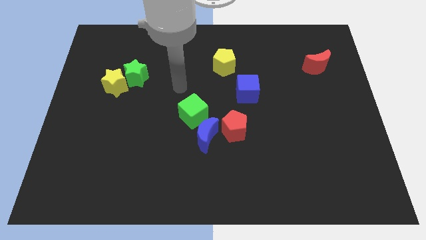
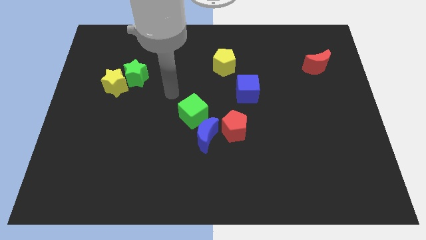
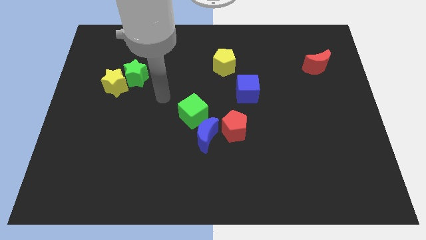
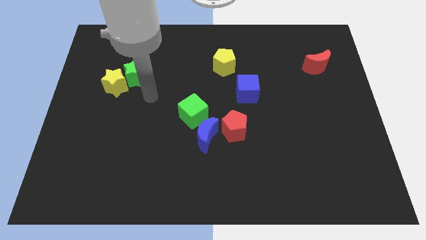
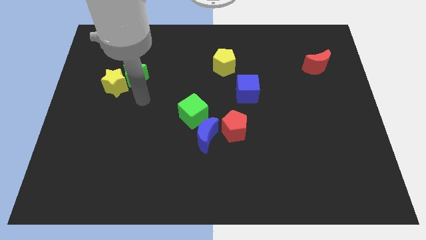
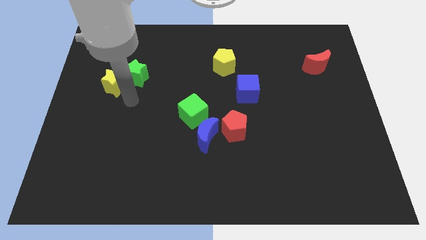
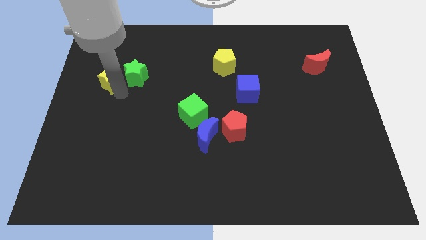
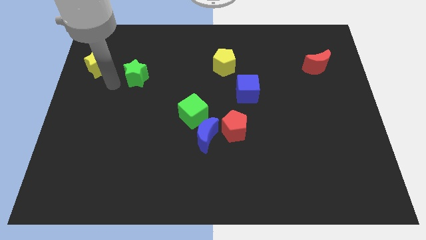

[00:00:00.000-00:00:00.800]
separate the green star from the yellow star

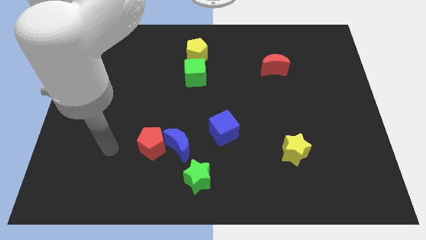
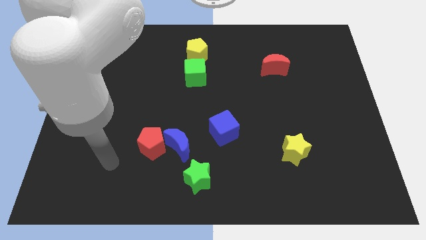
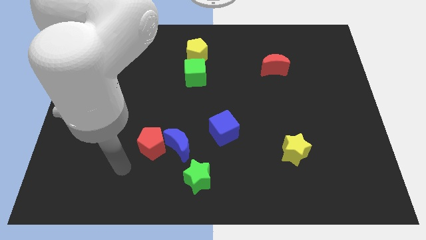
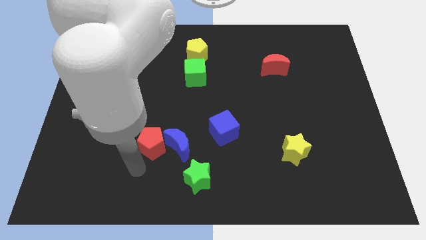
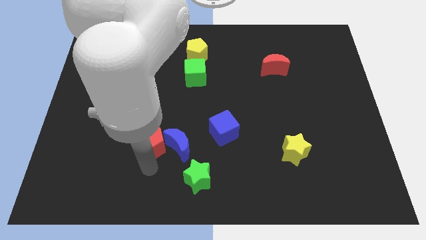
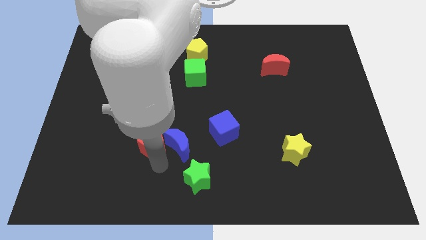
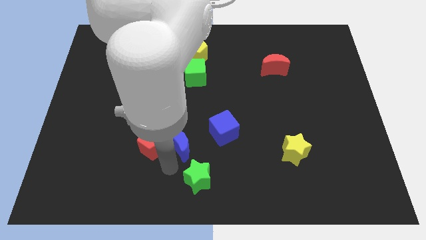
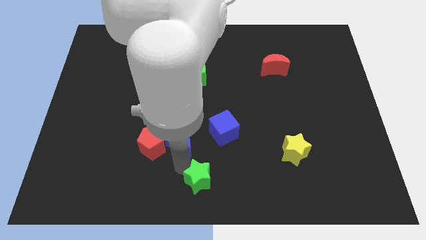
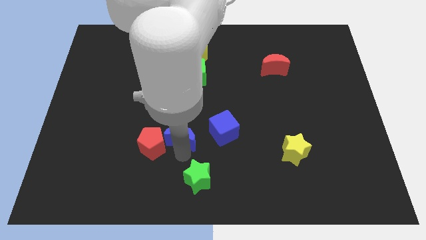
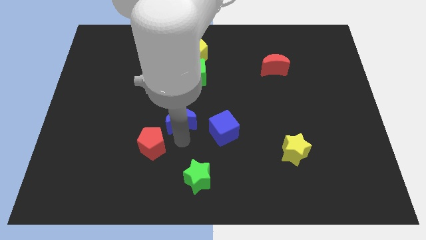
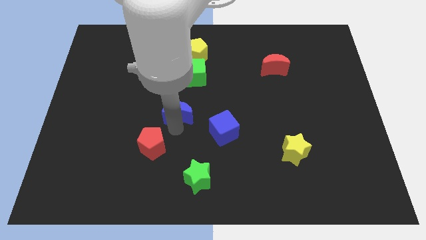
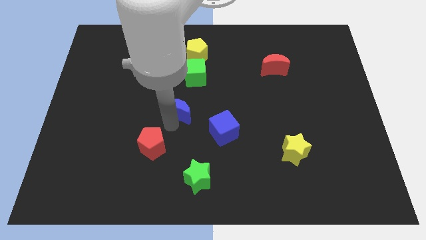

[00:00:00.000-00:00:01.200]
separate the red pentagon from the blue moon

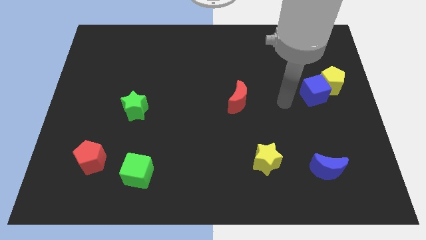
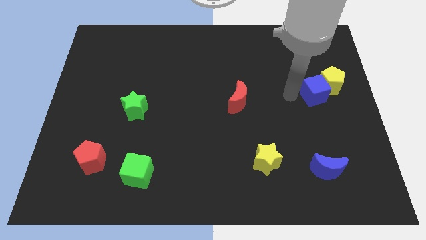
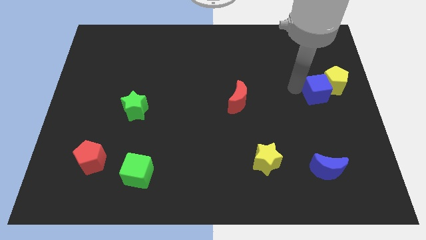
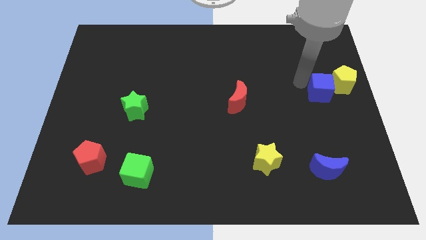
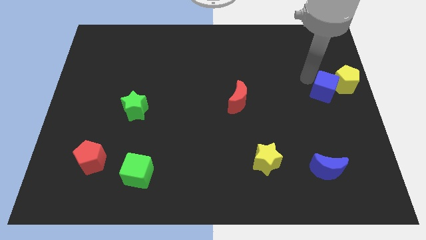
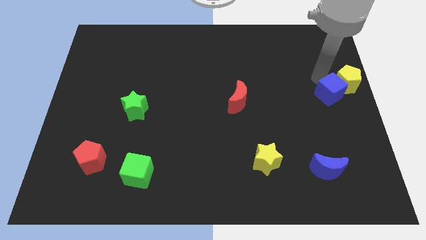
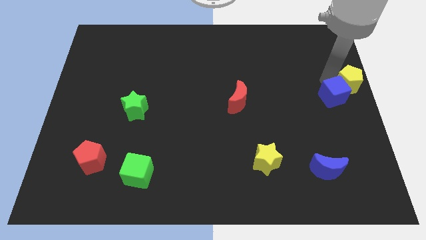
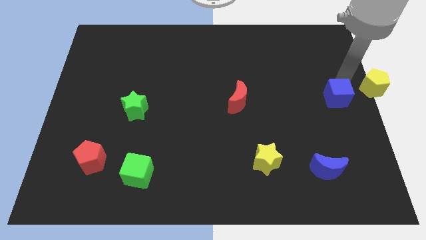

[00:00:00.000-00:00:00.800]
separate the blue cube from the yellow pentagon

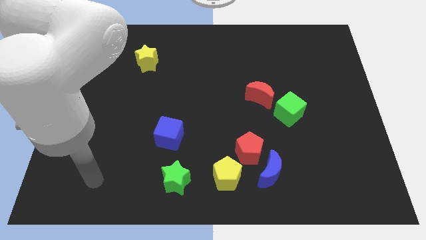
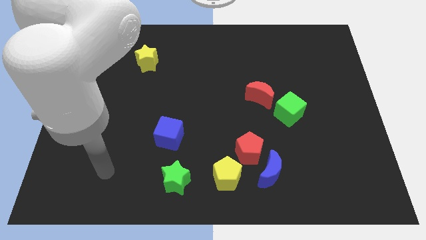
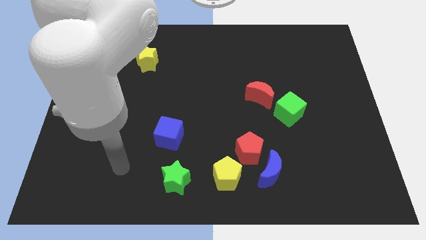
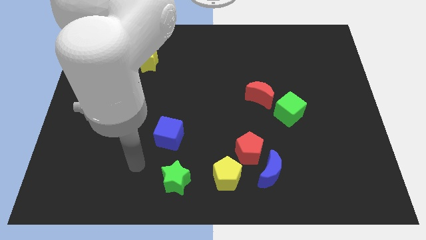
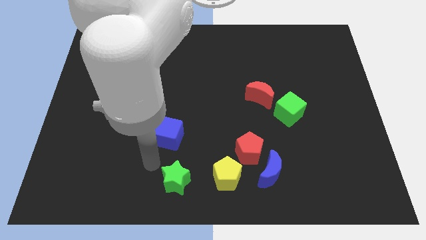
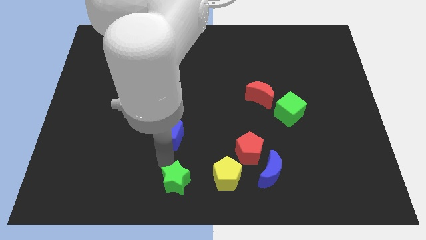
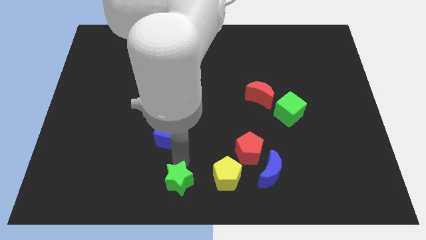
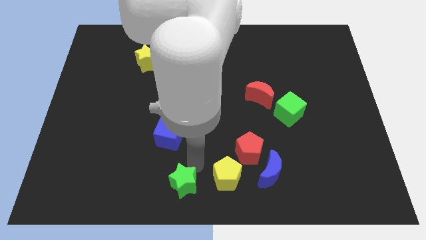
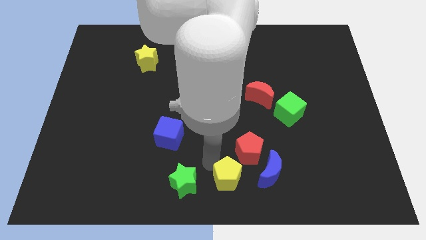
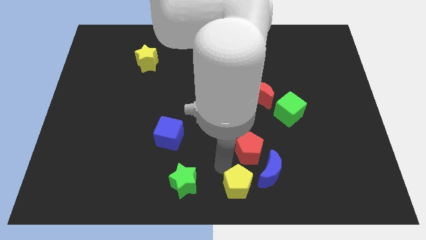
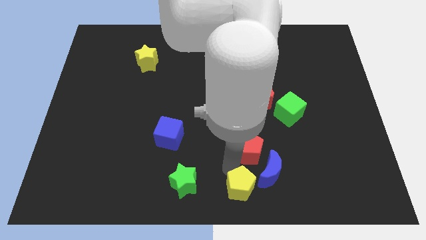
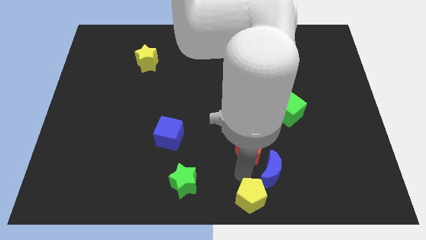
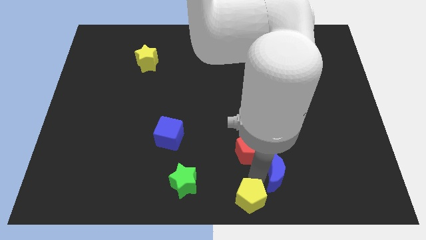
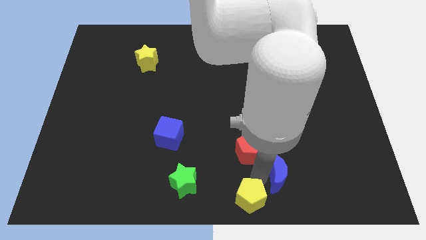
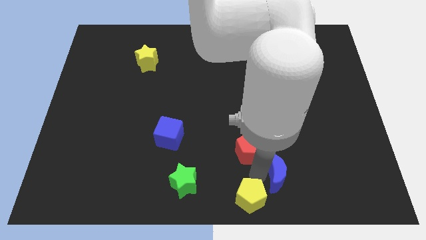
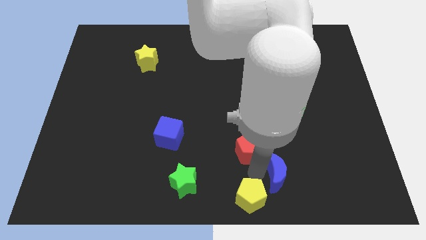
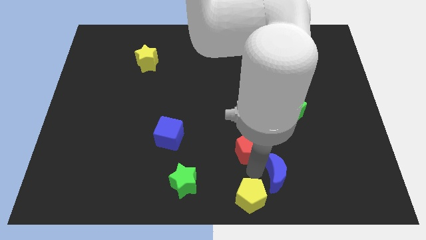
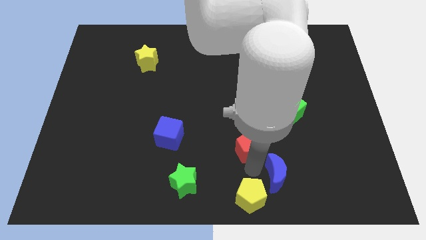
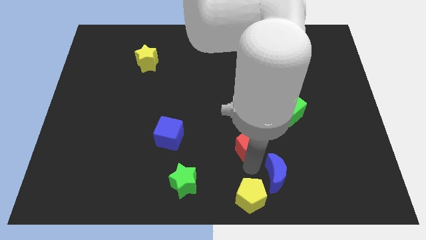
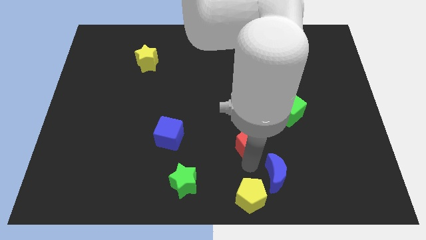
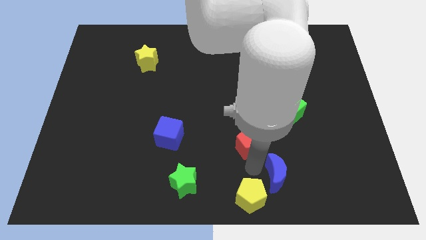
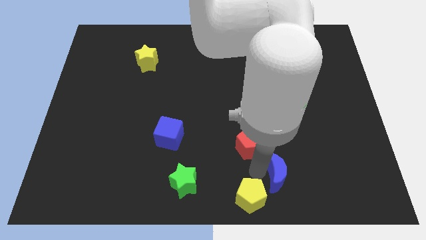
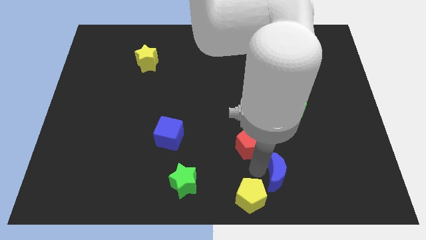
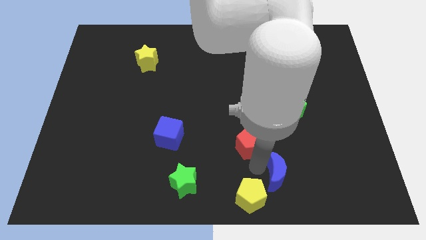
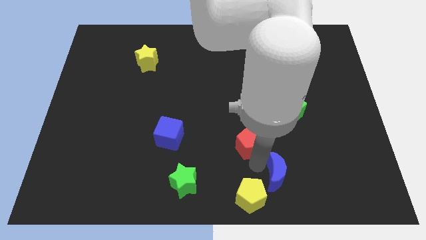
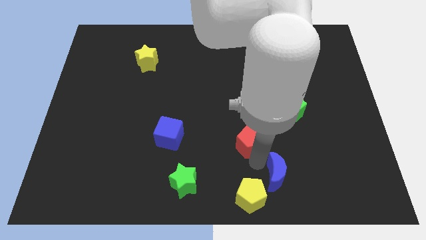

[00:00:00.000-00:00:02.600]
pull the red pentagon apart from the blue moon and yellow pentagon

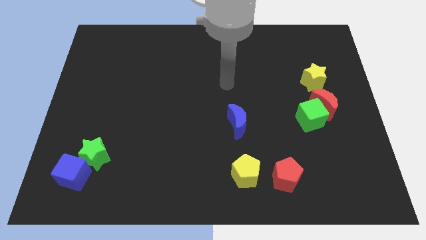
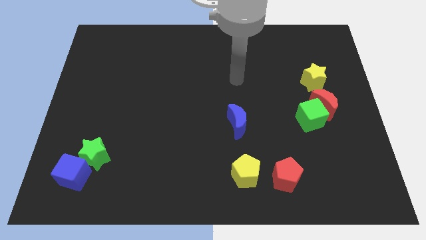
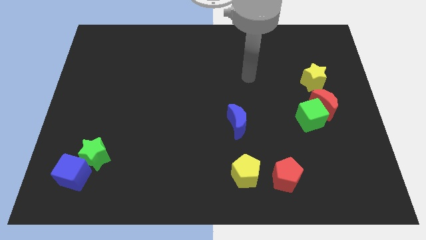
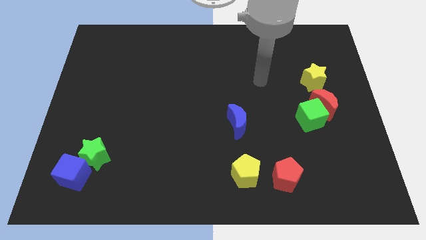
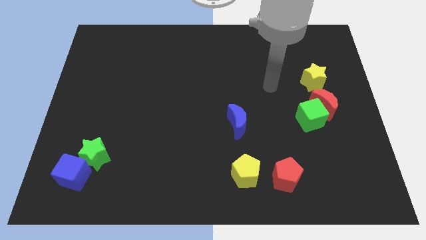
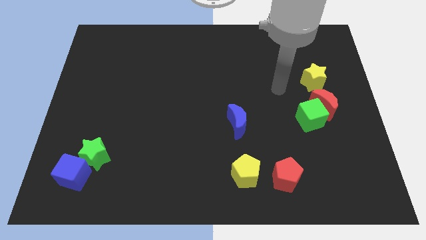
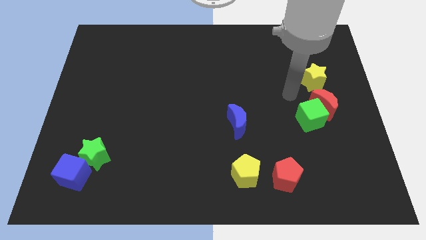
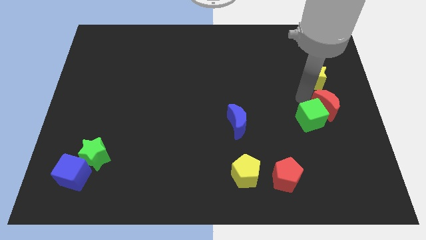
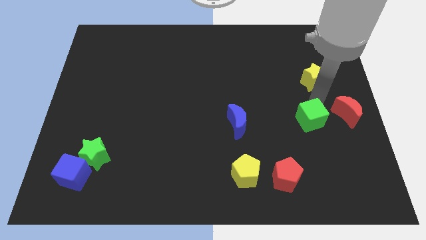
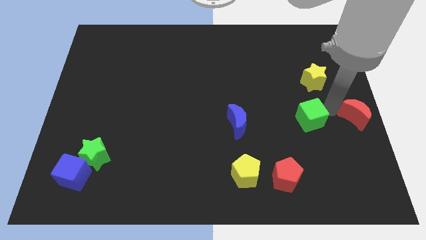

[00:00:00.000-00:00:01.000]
move the green cube away from the red moon

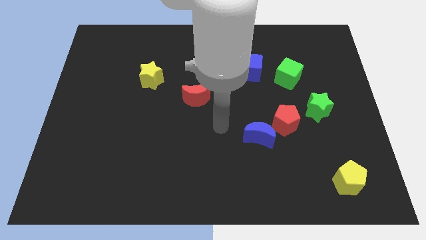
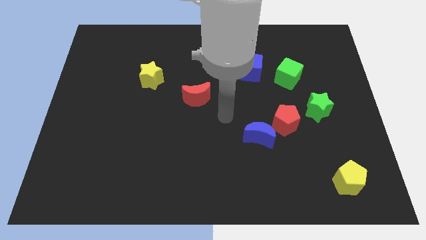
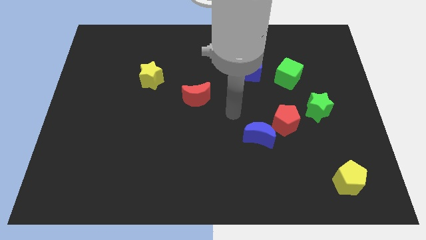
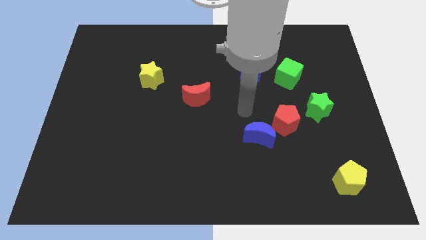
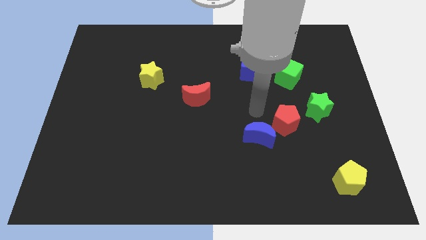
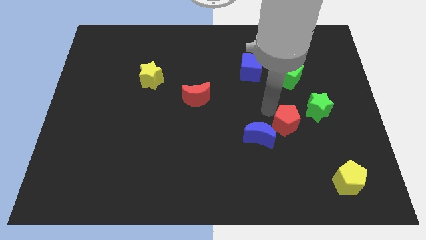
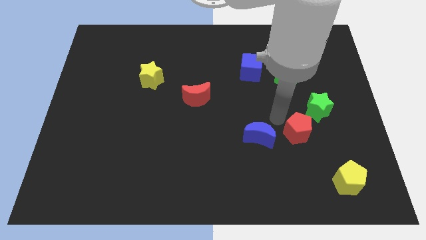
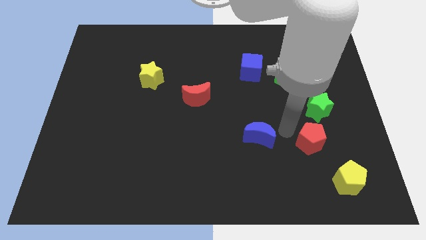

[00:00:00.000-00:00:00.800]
separate the blue moon from the red pentagon

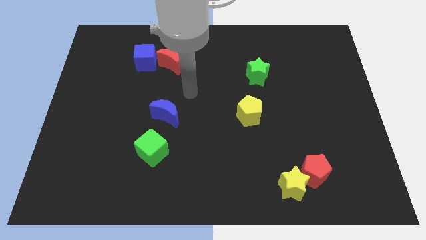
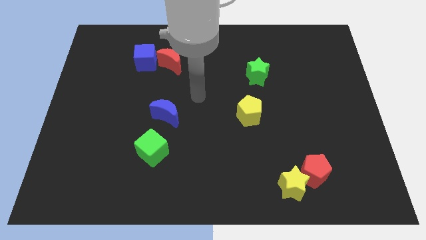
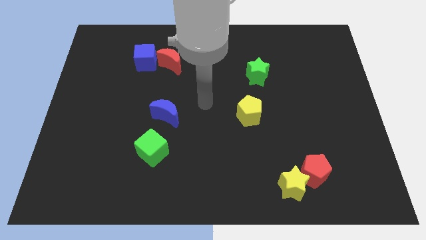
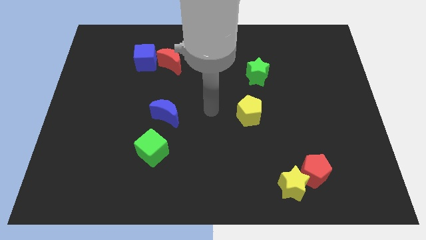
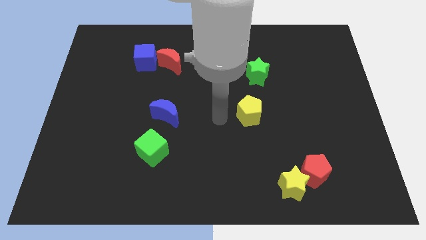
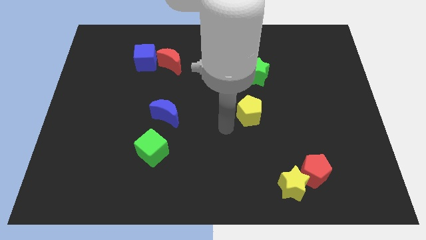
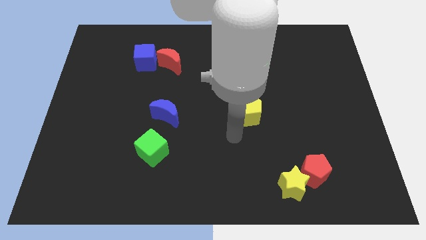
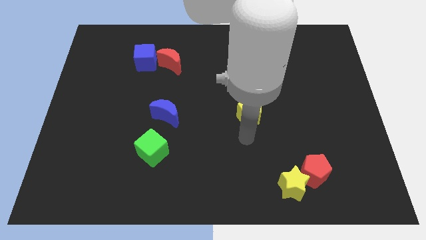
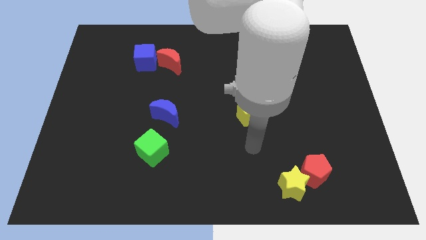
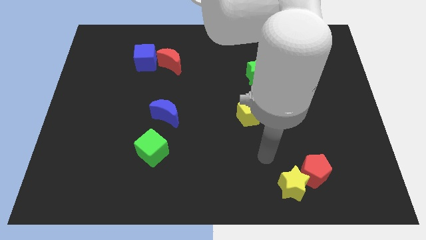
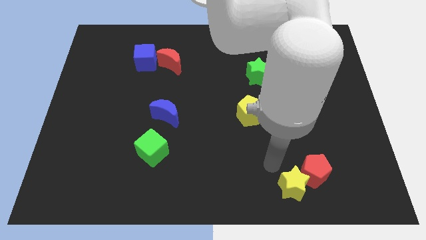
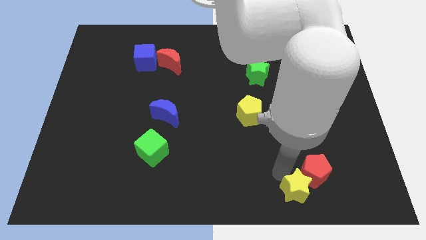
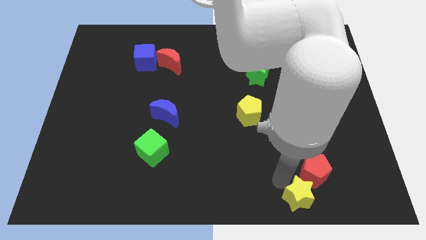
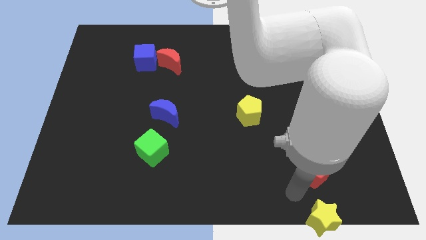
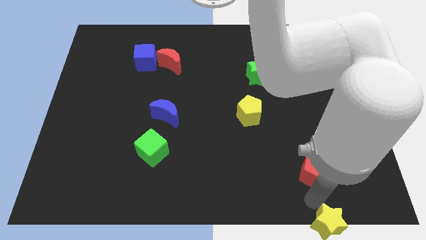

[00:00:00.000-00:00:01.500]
move the red pentagon away from the yellow star

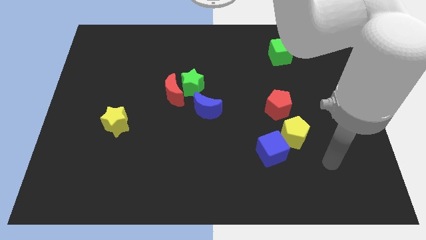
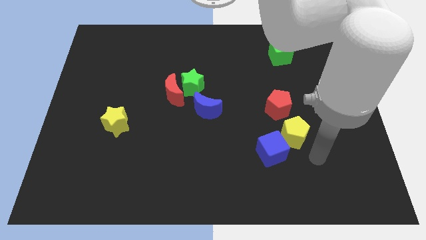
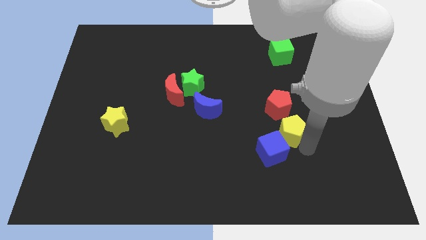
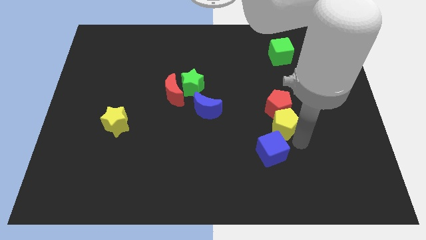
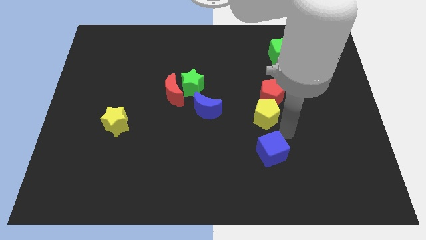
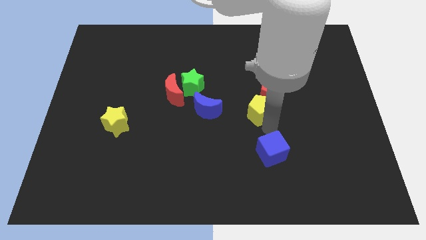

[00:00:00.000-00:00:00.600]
move the blue cube away from the yellow pentagon

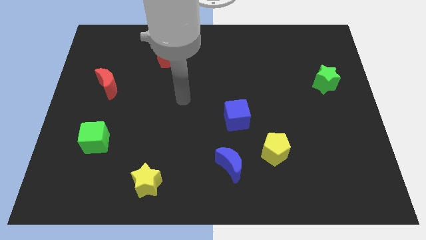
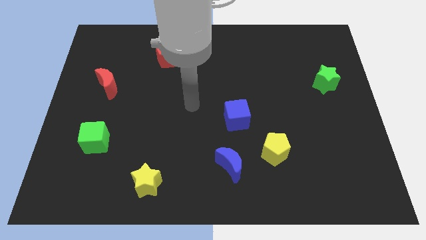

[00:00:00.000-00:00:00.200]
pull the blue moon apart from the yellow pentagon
